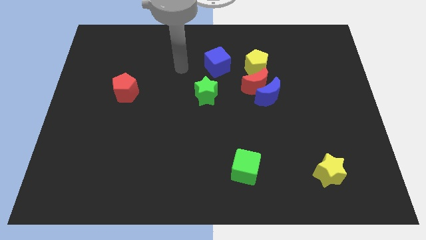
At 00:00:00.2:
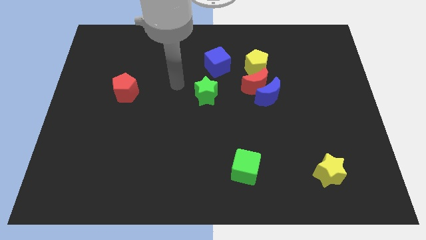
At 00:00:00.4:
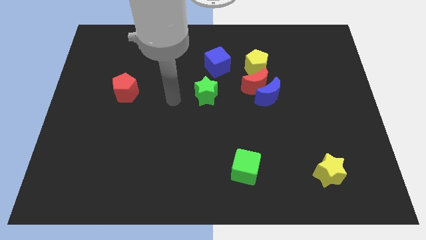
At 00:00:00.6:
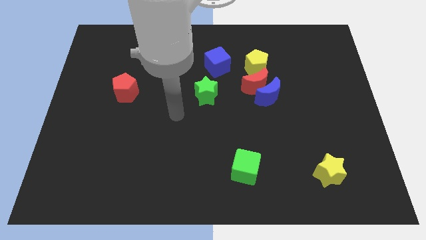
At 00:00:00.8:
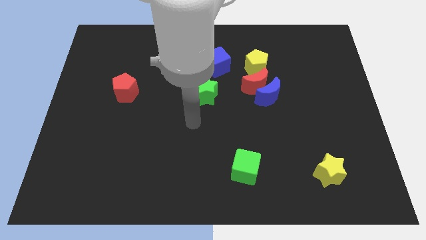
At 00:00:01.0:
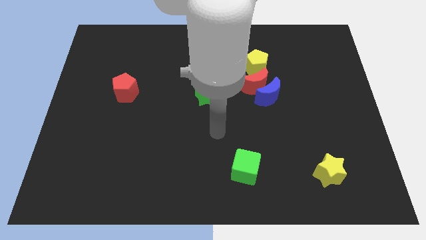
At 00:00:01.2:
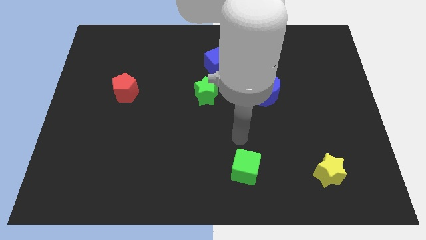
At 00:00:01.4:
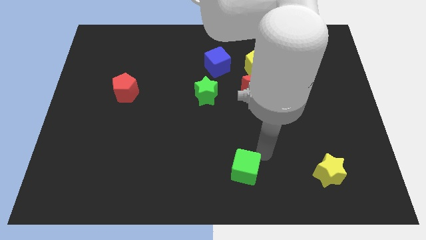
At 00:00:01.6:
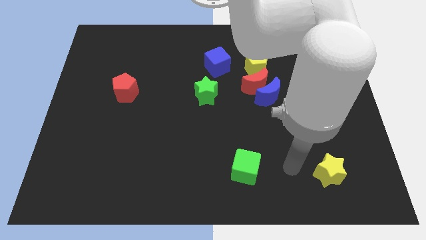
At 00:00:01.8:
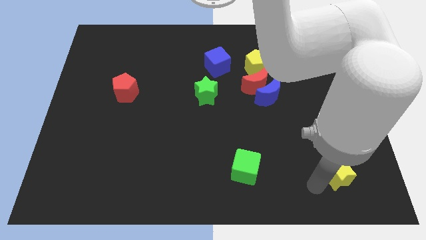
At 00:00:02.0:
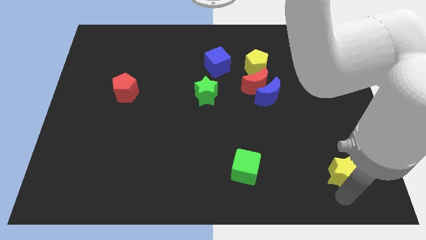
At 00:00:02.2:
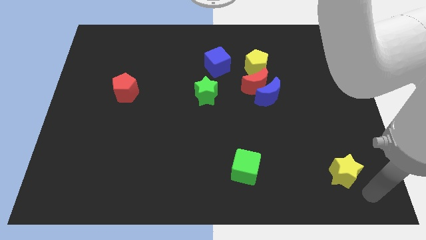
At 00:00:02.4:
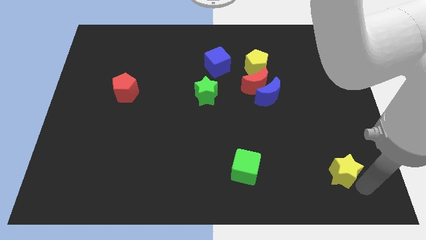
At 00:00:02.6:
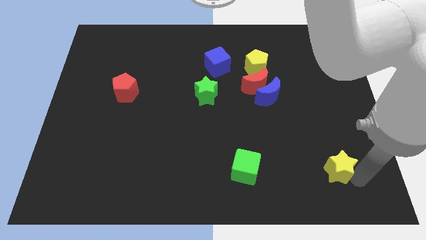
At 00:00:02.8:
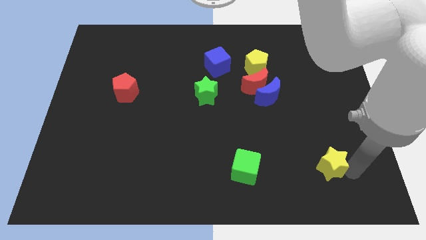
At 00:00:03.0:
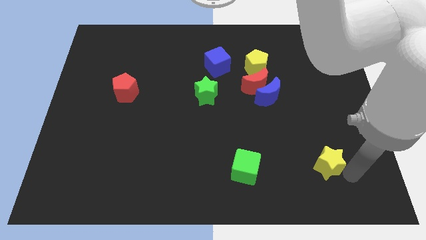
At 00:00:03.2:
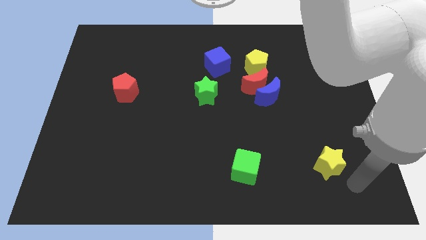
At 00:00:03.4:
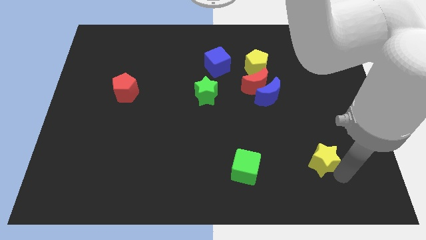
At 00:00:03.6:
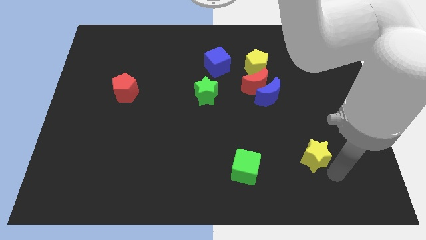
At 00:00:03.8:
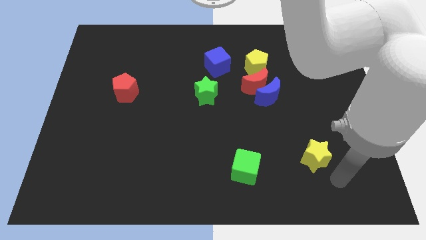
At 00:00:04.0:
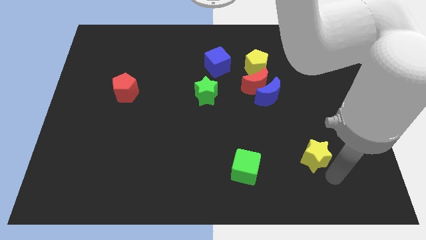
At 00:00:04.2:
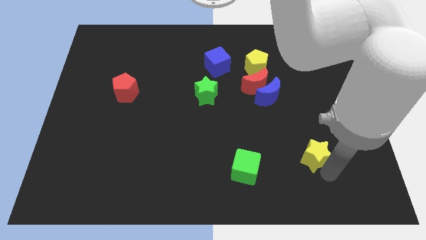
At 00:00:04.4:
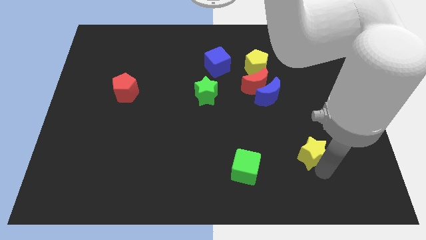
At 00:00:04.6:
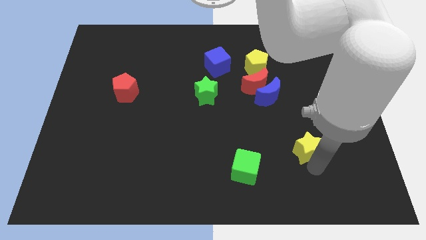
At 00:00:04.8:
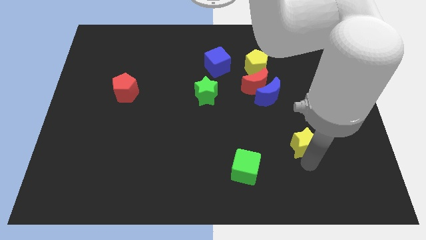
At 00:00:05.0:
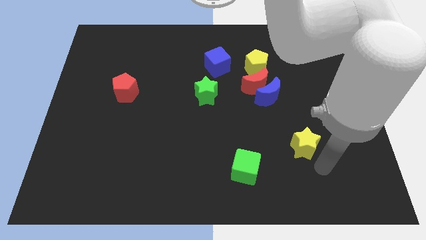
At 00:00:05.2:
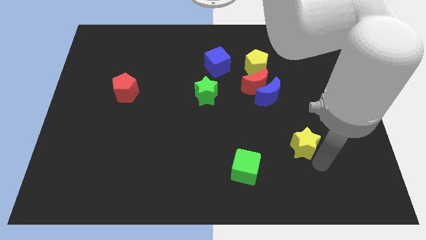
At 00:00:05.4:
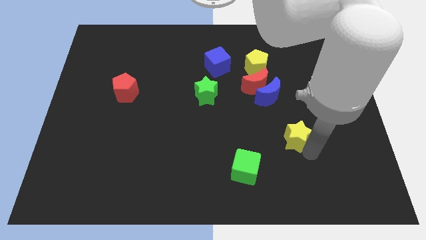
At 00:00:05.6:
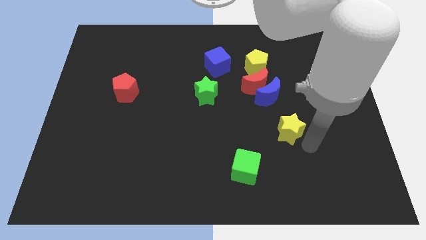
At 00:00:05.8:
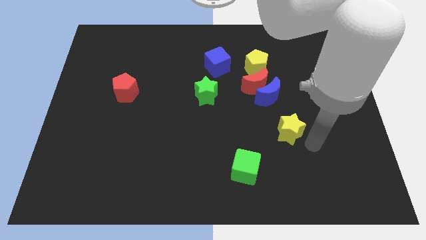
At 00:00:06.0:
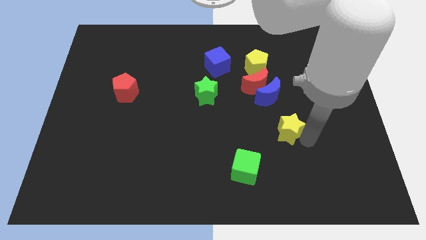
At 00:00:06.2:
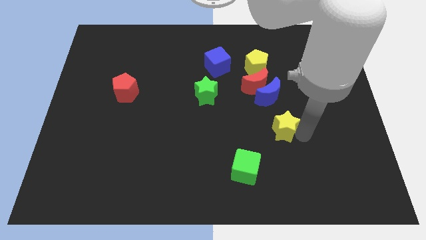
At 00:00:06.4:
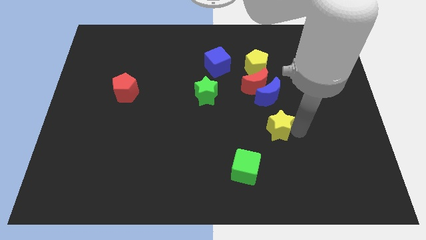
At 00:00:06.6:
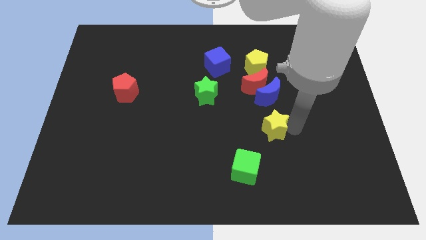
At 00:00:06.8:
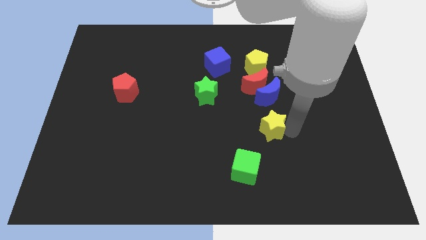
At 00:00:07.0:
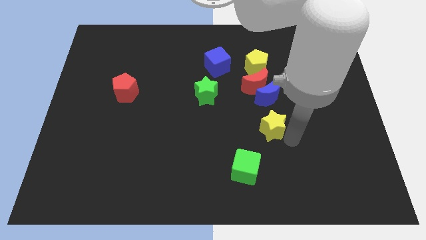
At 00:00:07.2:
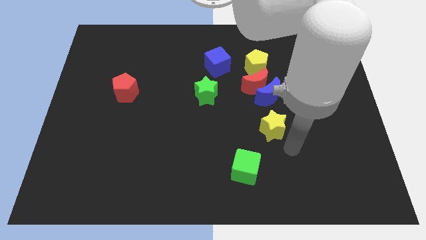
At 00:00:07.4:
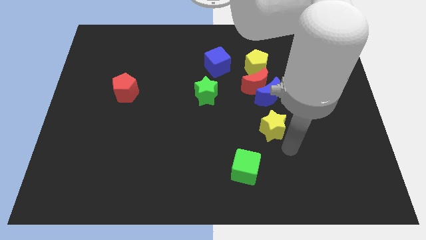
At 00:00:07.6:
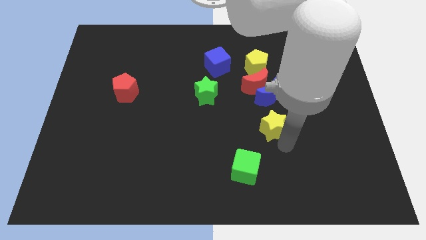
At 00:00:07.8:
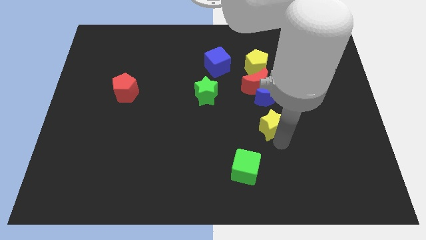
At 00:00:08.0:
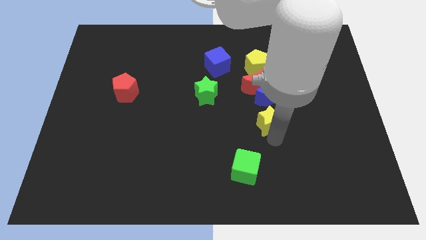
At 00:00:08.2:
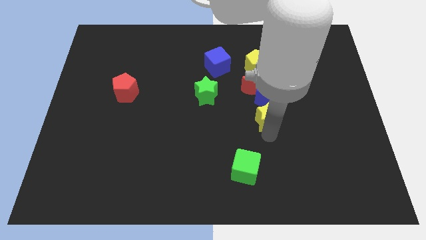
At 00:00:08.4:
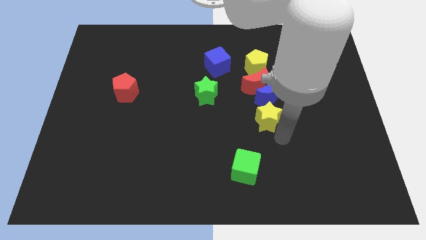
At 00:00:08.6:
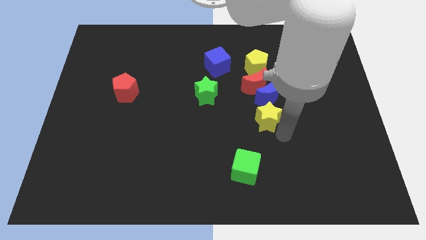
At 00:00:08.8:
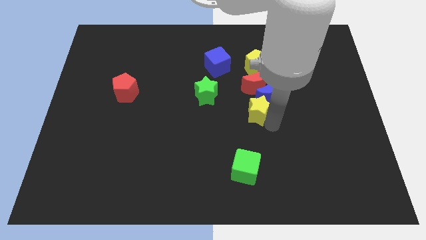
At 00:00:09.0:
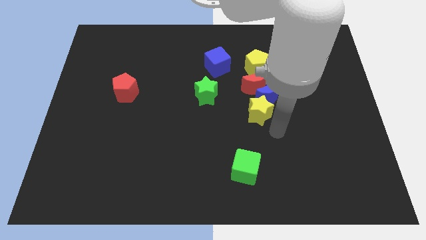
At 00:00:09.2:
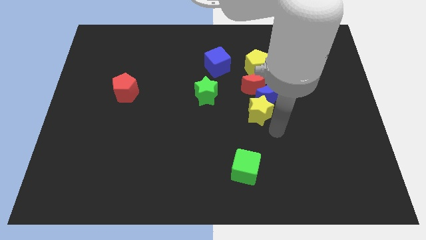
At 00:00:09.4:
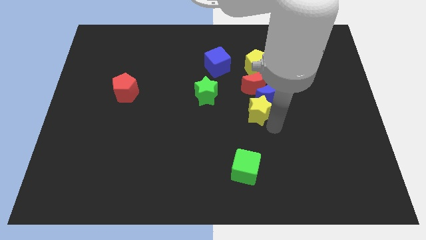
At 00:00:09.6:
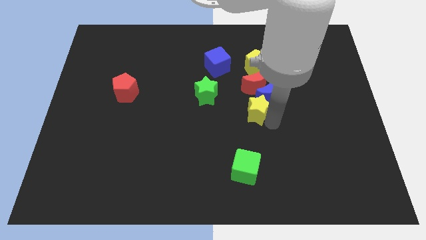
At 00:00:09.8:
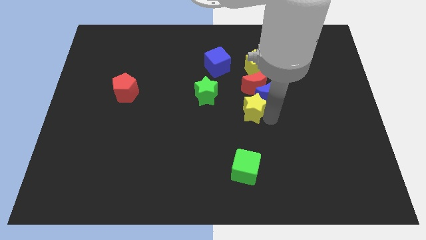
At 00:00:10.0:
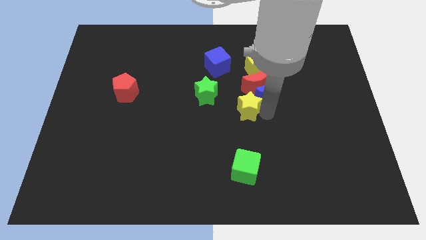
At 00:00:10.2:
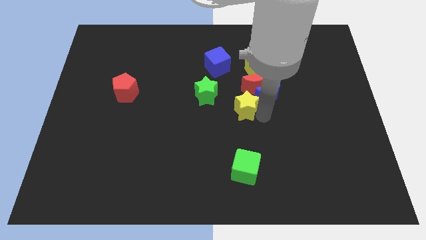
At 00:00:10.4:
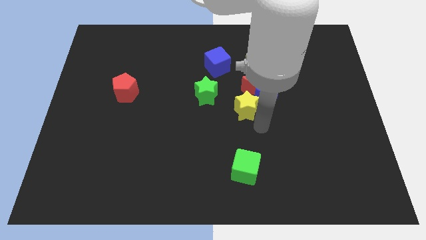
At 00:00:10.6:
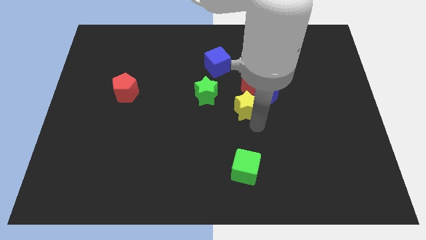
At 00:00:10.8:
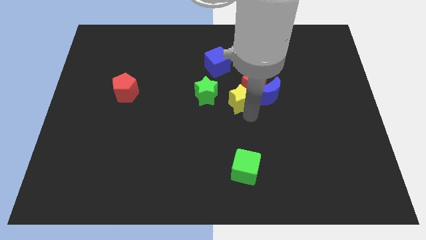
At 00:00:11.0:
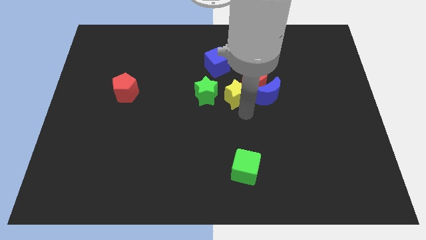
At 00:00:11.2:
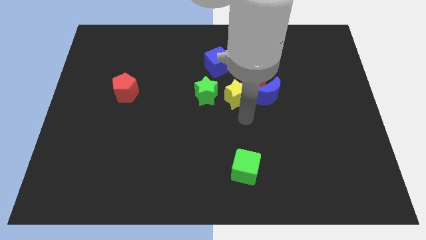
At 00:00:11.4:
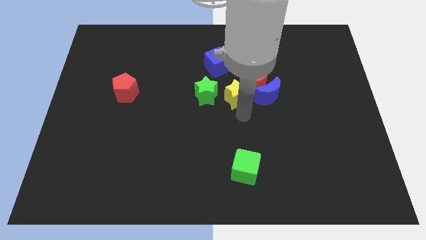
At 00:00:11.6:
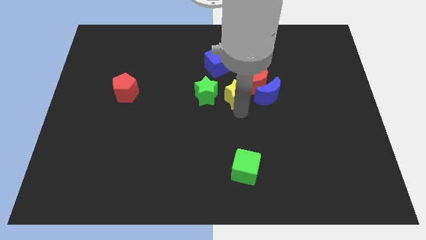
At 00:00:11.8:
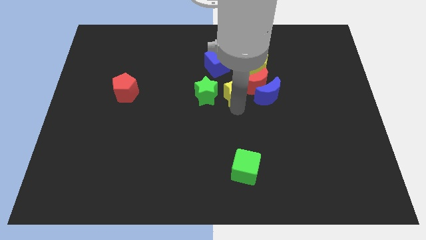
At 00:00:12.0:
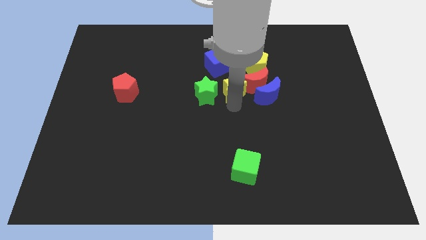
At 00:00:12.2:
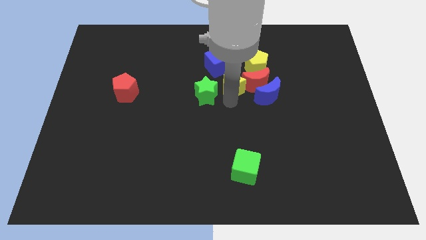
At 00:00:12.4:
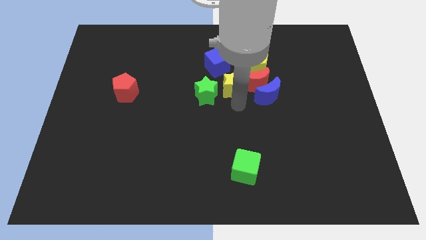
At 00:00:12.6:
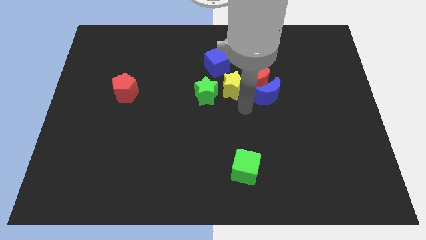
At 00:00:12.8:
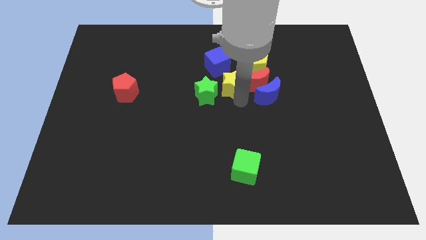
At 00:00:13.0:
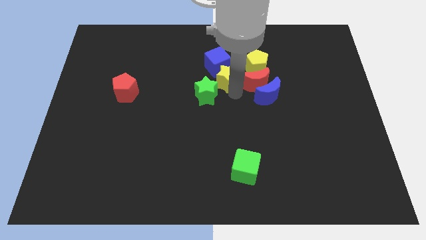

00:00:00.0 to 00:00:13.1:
move the yellow star towards the blue cube

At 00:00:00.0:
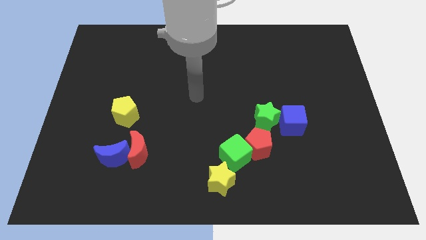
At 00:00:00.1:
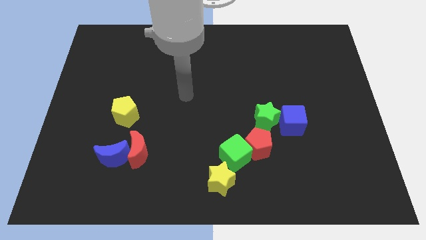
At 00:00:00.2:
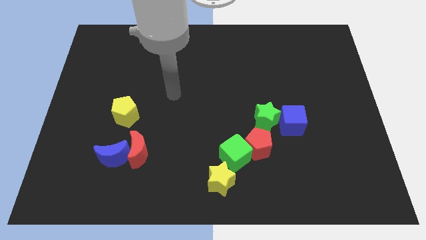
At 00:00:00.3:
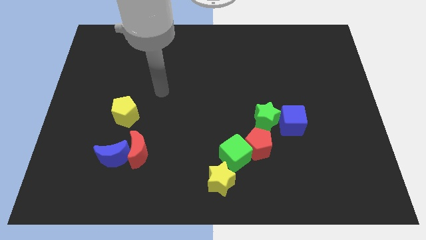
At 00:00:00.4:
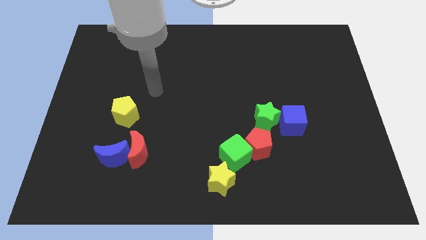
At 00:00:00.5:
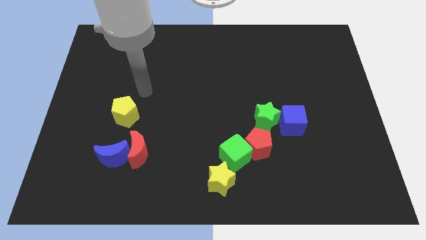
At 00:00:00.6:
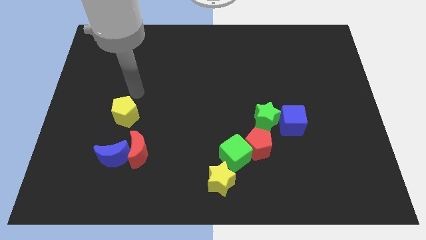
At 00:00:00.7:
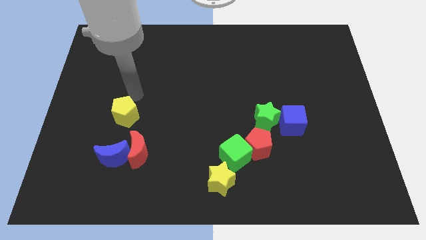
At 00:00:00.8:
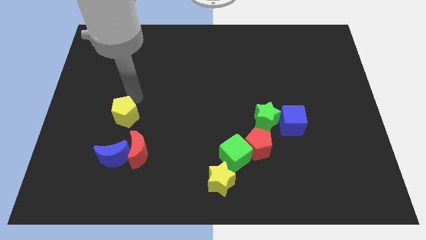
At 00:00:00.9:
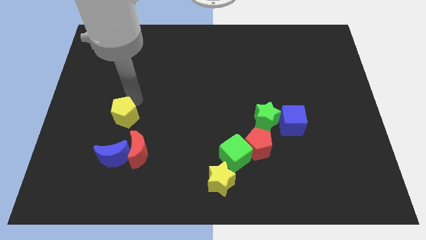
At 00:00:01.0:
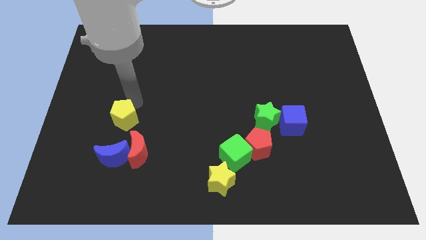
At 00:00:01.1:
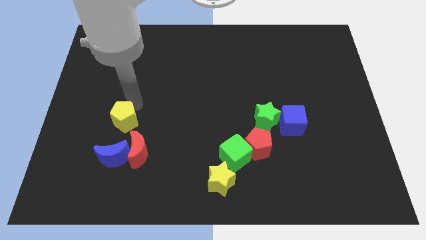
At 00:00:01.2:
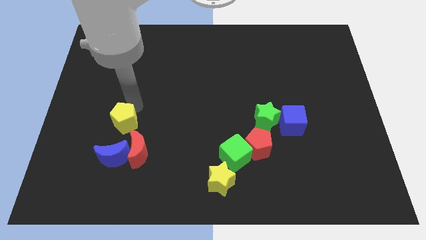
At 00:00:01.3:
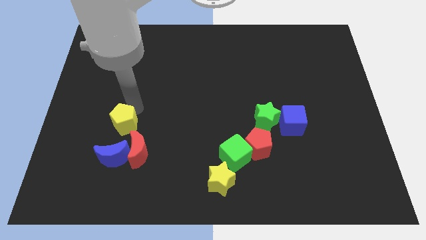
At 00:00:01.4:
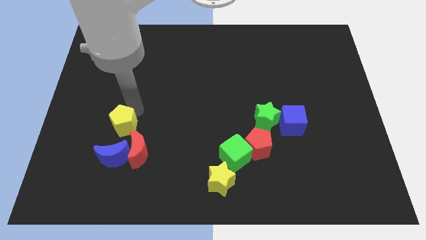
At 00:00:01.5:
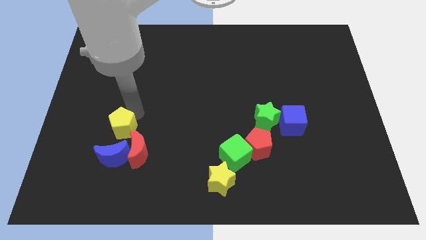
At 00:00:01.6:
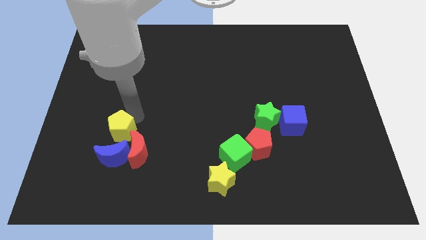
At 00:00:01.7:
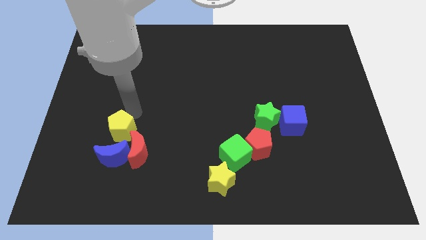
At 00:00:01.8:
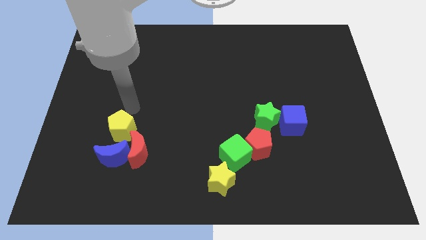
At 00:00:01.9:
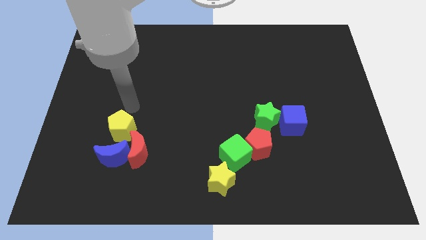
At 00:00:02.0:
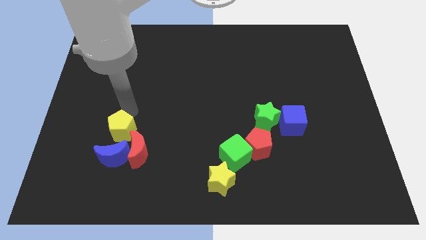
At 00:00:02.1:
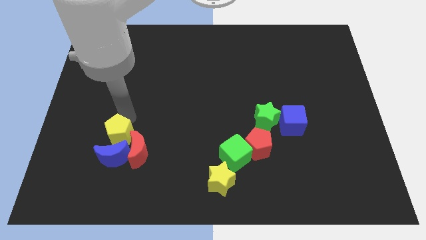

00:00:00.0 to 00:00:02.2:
put the yellow pentagon towards the blue moon
